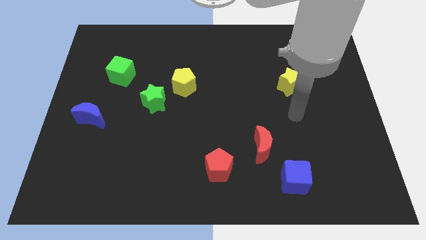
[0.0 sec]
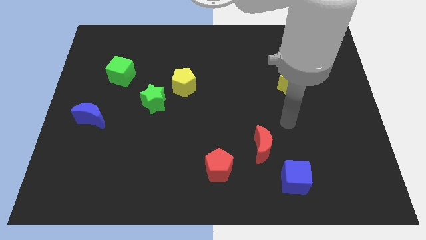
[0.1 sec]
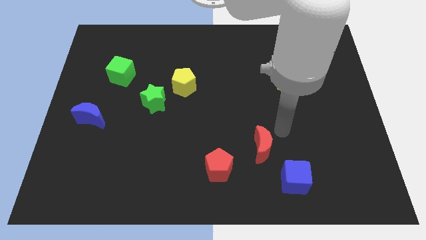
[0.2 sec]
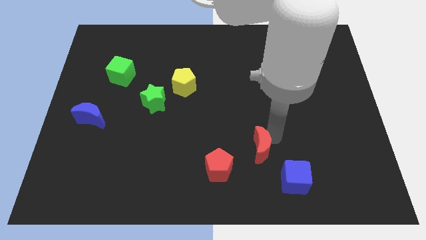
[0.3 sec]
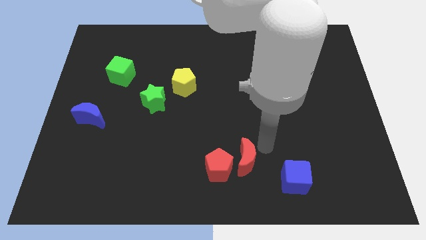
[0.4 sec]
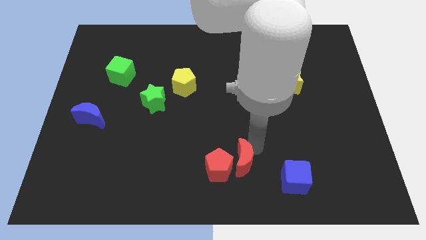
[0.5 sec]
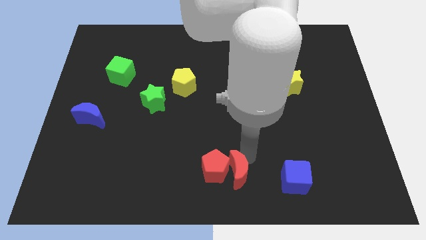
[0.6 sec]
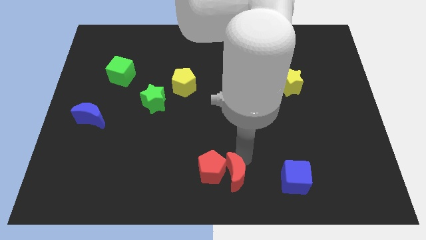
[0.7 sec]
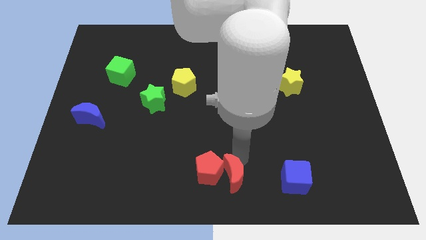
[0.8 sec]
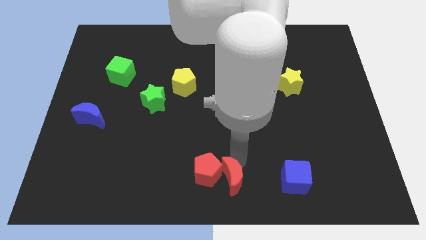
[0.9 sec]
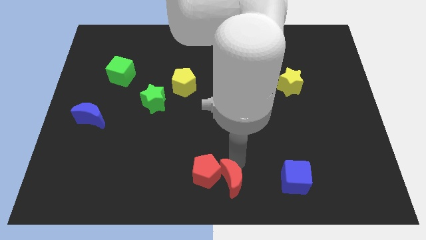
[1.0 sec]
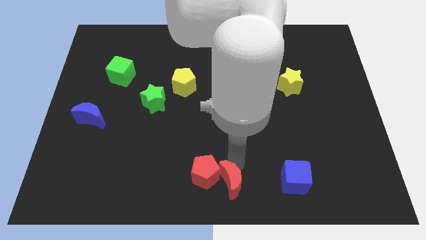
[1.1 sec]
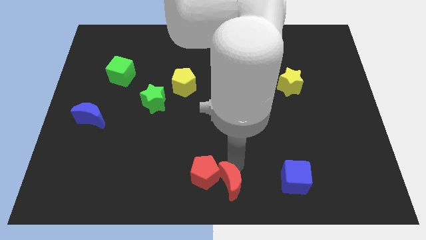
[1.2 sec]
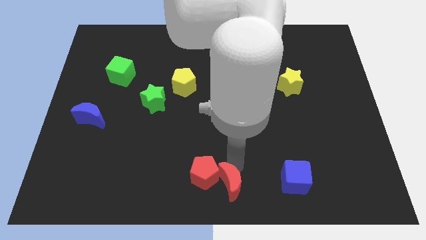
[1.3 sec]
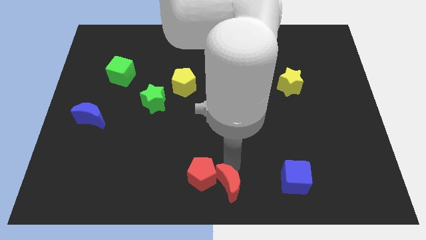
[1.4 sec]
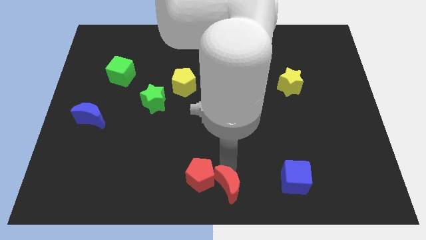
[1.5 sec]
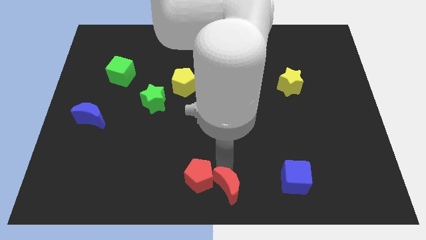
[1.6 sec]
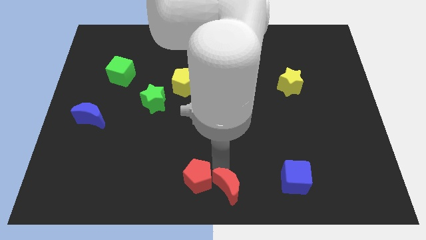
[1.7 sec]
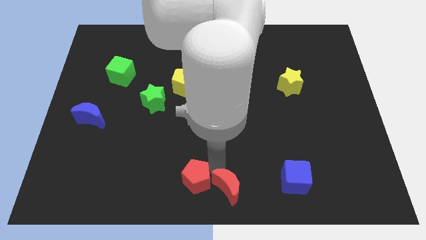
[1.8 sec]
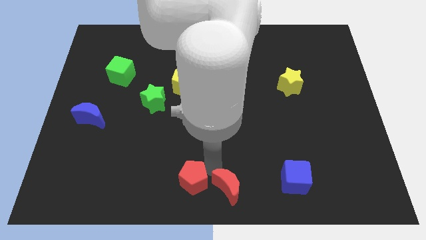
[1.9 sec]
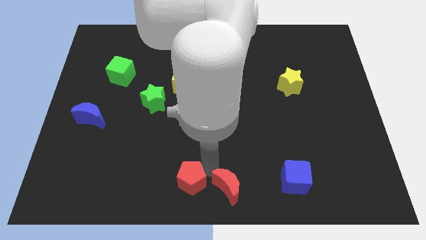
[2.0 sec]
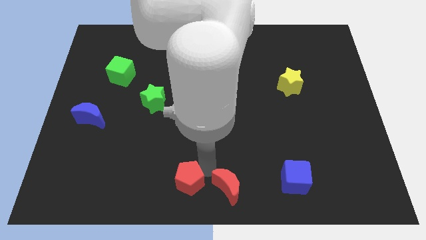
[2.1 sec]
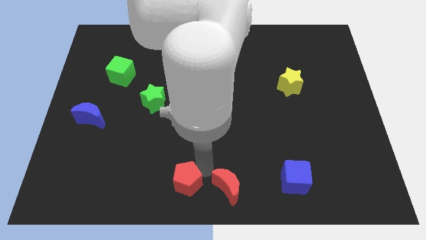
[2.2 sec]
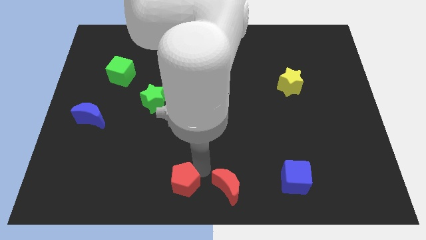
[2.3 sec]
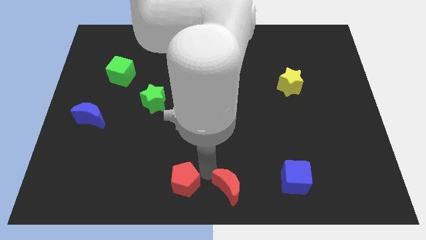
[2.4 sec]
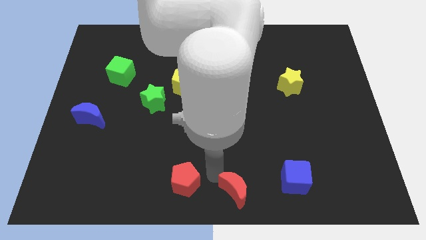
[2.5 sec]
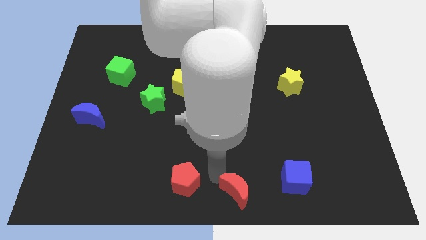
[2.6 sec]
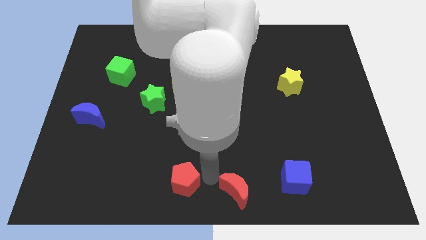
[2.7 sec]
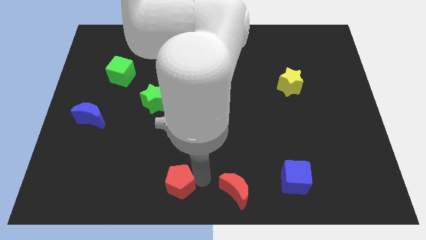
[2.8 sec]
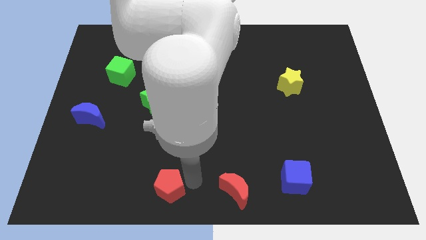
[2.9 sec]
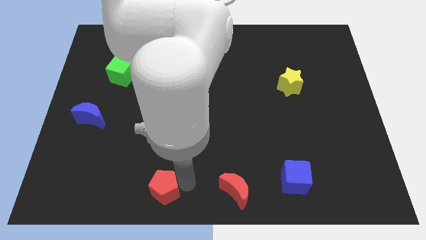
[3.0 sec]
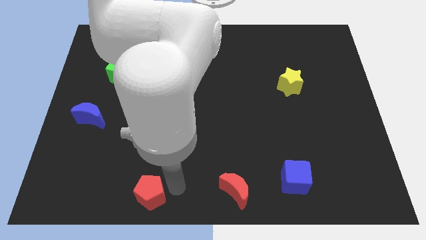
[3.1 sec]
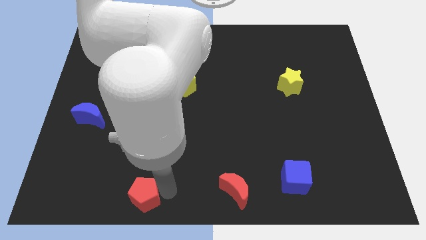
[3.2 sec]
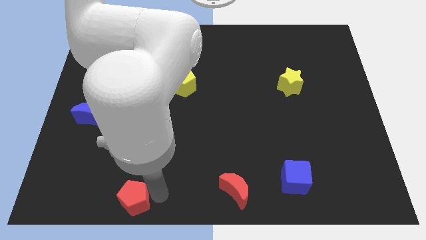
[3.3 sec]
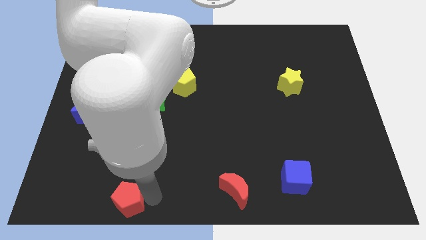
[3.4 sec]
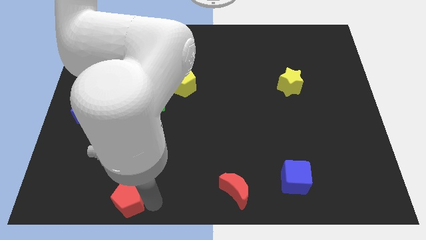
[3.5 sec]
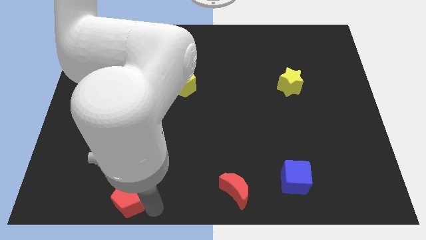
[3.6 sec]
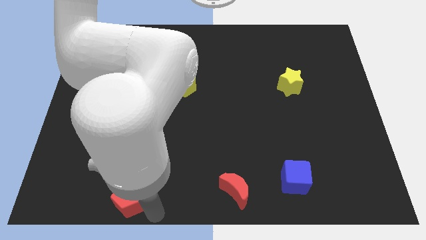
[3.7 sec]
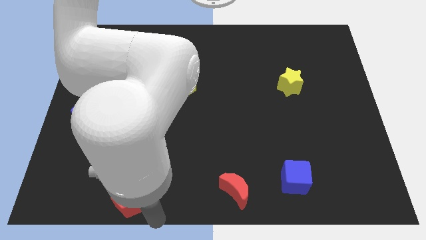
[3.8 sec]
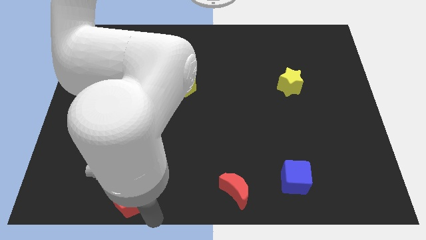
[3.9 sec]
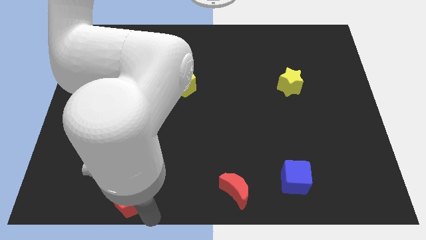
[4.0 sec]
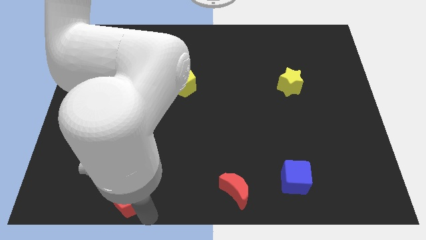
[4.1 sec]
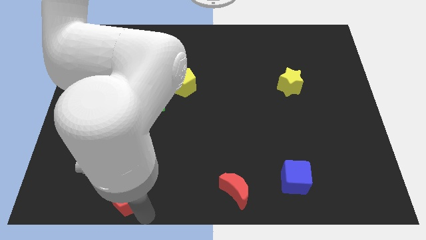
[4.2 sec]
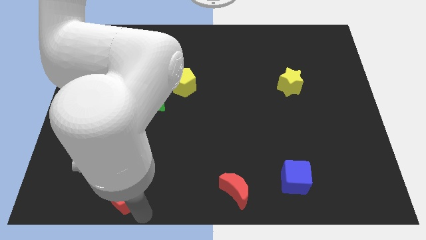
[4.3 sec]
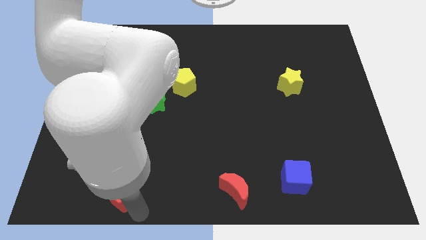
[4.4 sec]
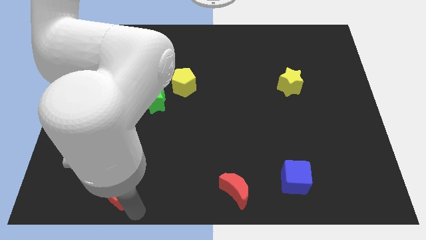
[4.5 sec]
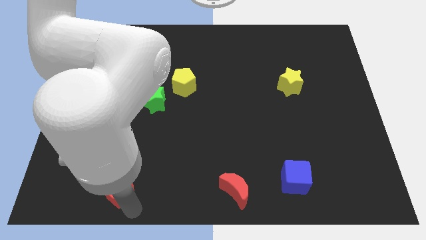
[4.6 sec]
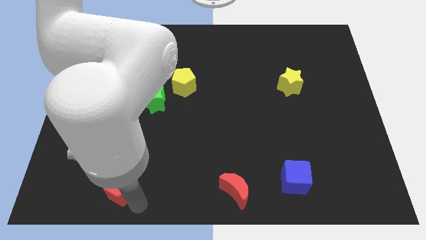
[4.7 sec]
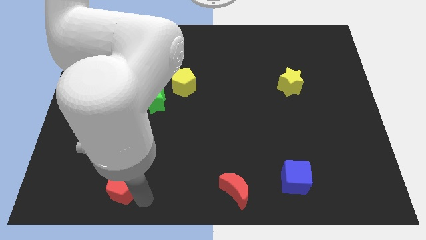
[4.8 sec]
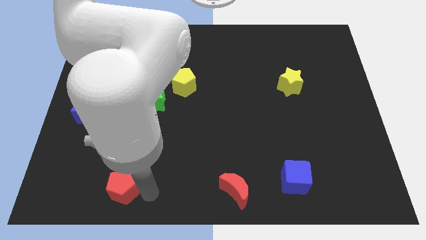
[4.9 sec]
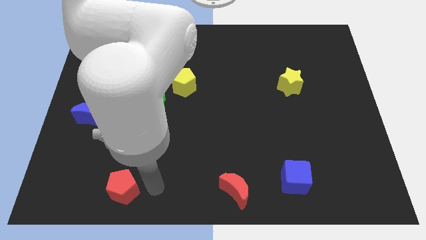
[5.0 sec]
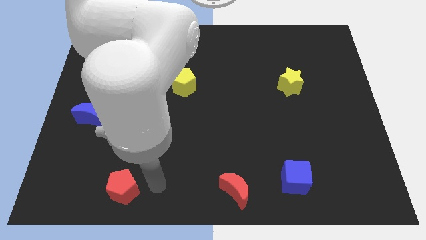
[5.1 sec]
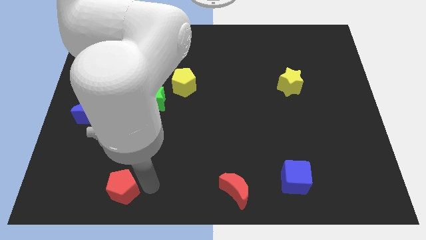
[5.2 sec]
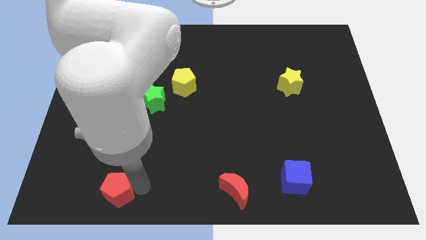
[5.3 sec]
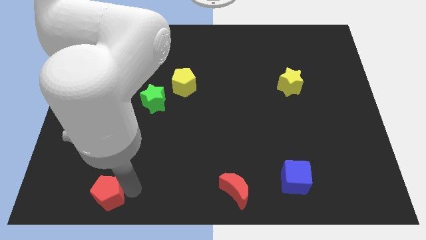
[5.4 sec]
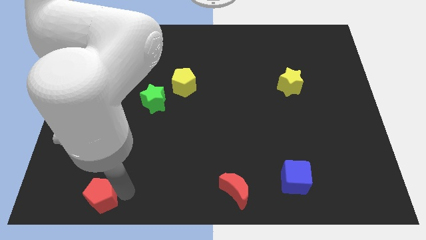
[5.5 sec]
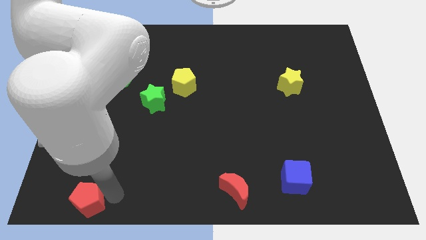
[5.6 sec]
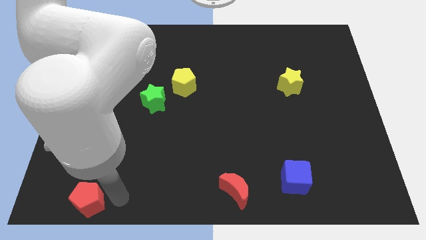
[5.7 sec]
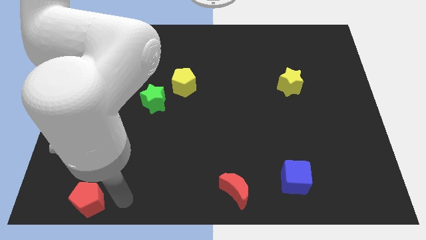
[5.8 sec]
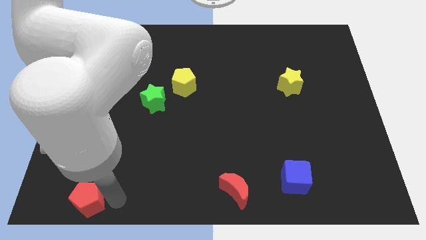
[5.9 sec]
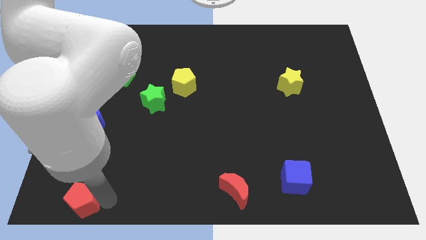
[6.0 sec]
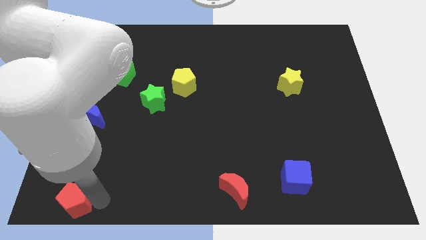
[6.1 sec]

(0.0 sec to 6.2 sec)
slide the red pentagon to the lower left corner
